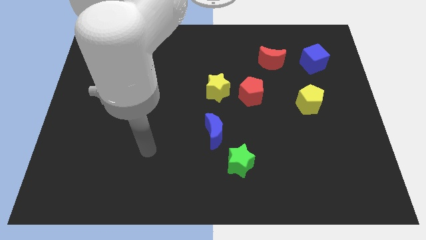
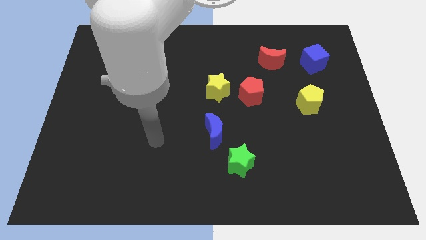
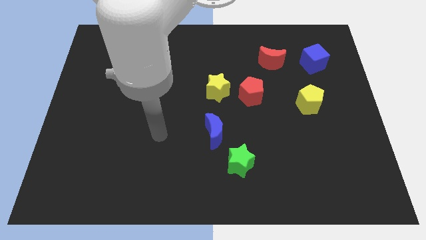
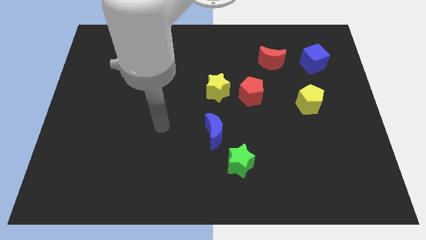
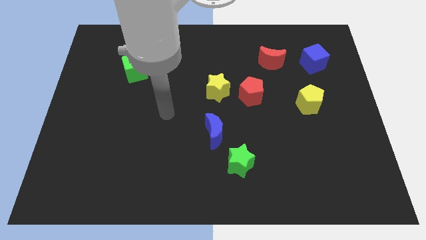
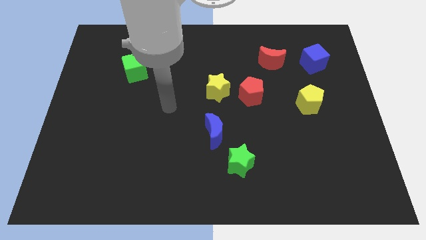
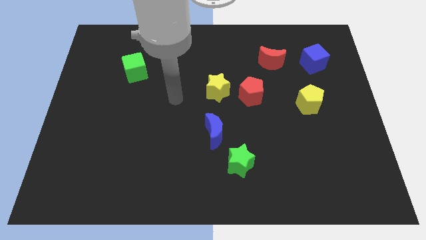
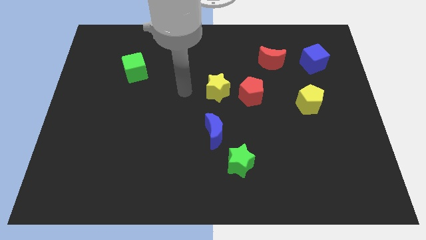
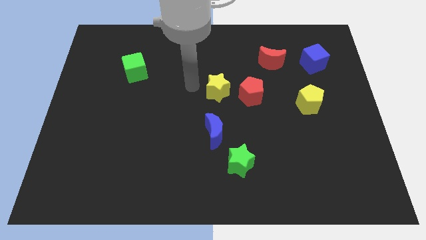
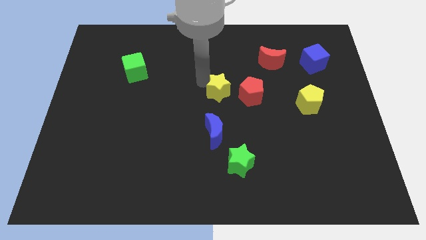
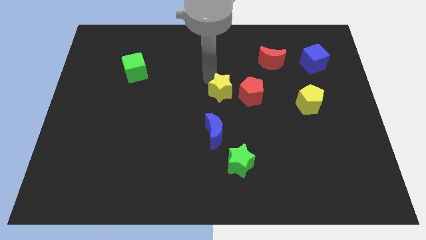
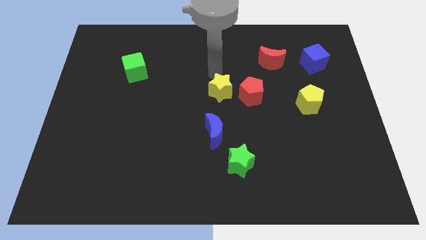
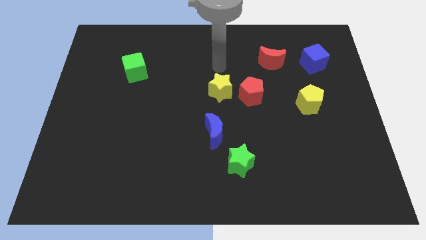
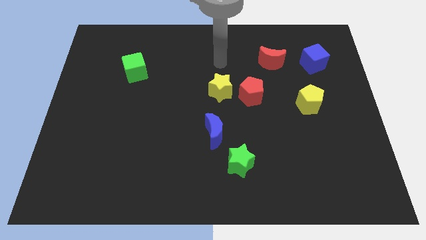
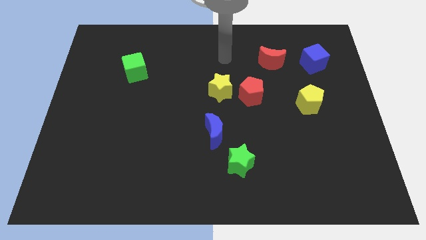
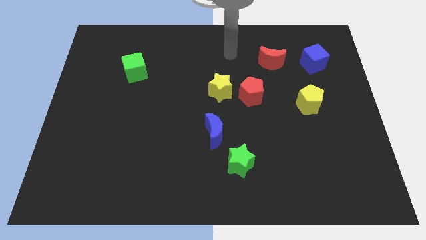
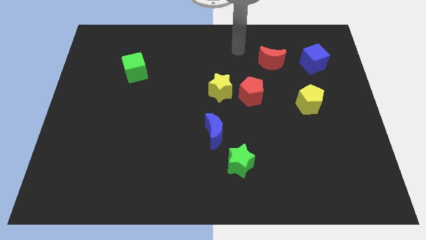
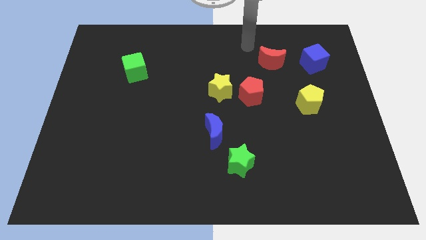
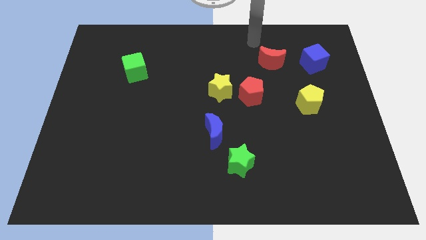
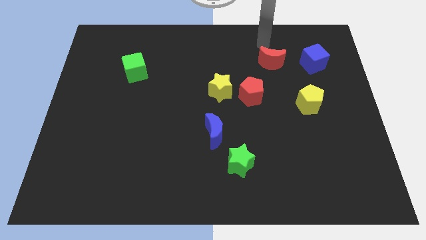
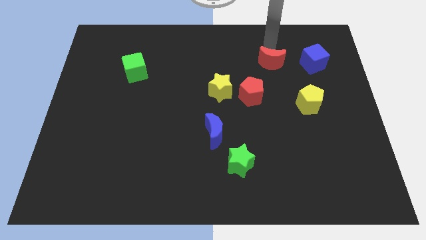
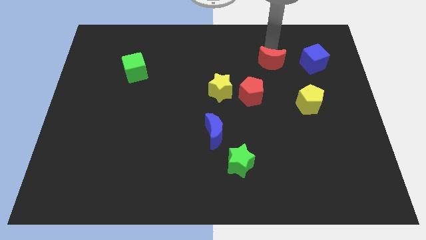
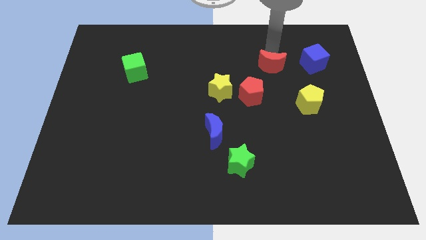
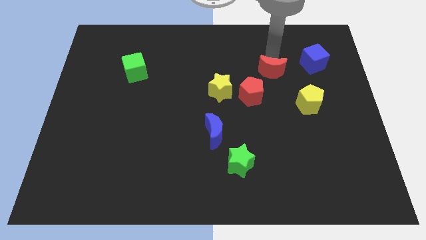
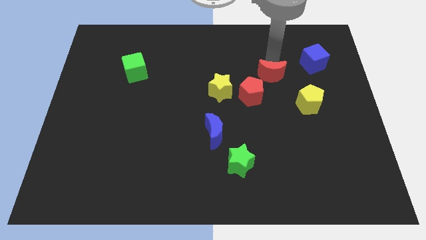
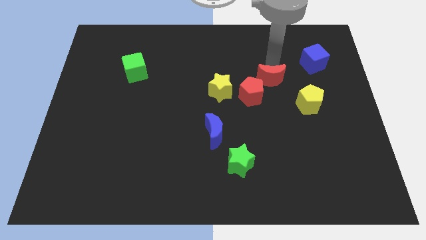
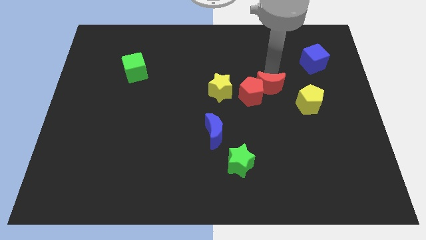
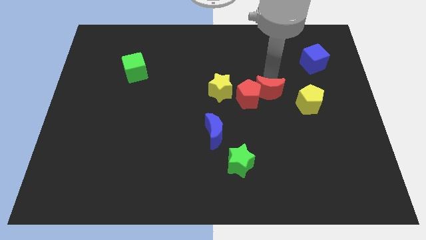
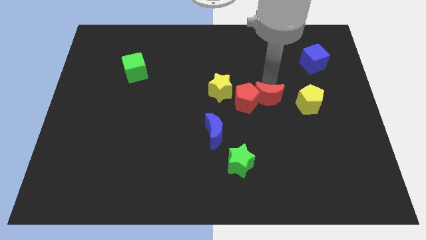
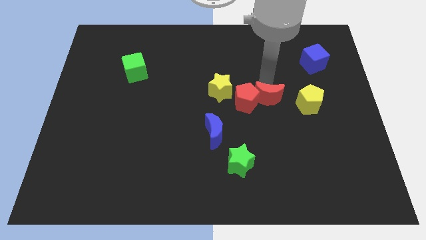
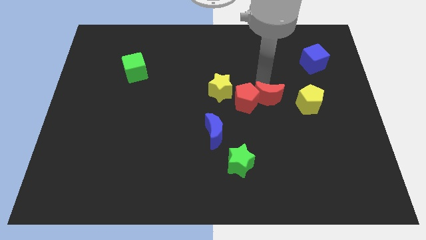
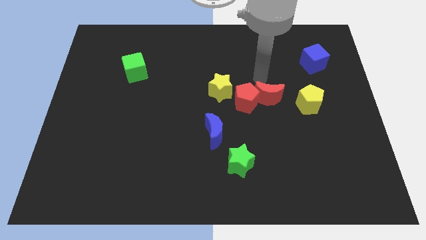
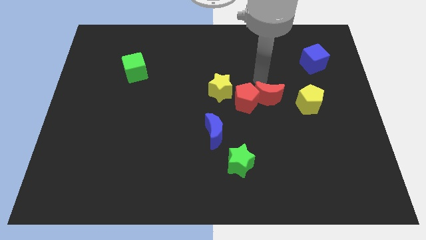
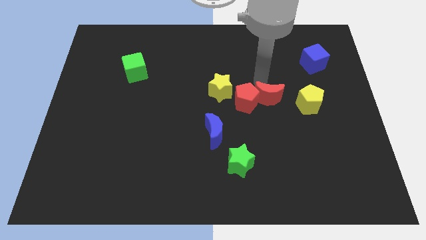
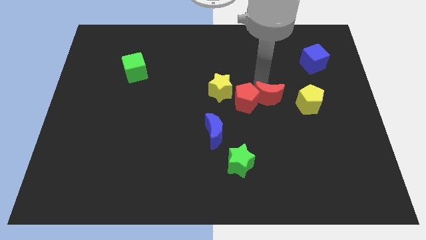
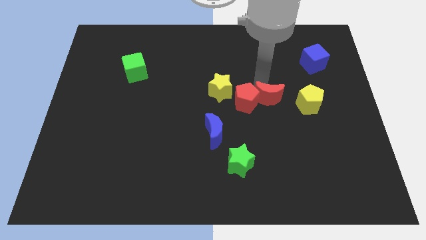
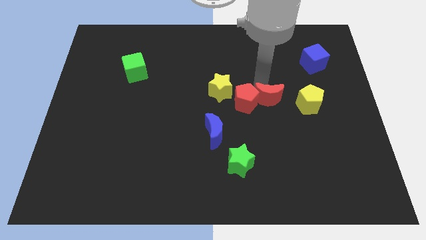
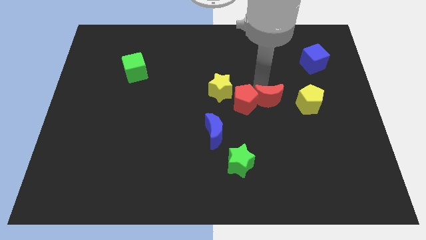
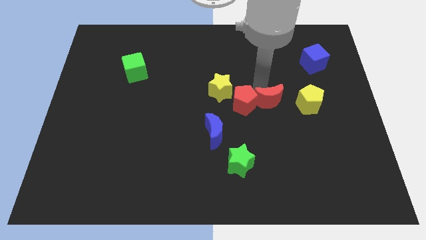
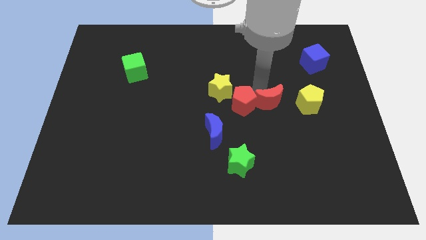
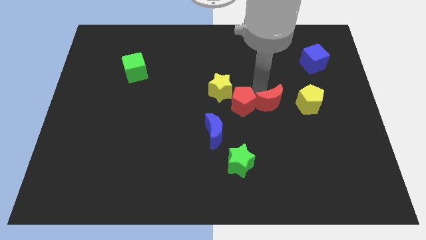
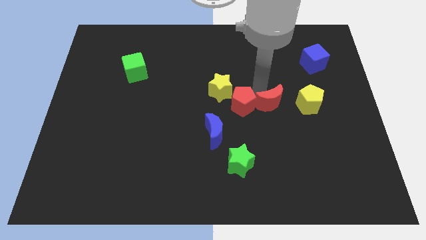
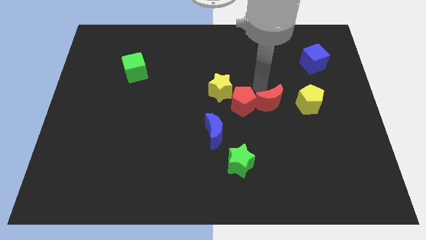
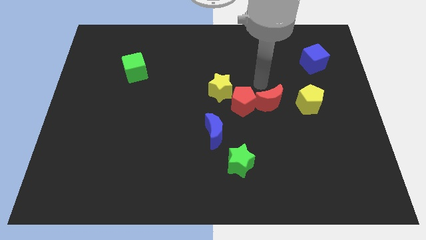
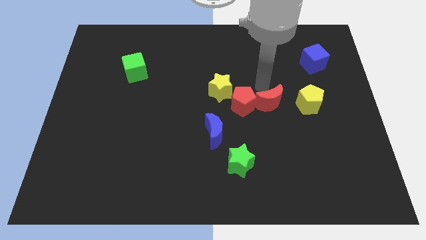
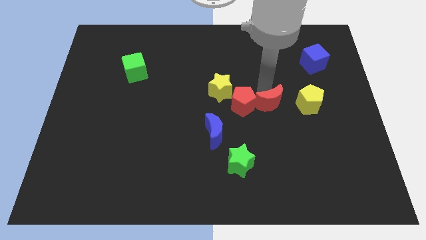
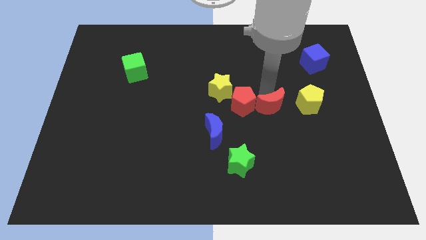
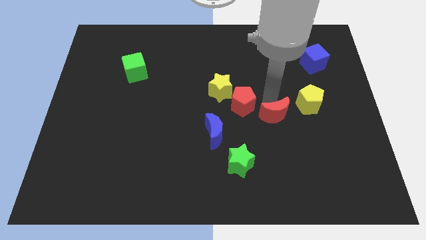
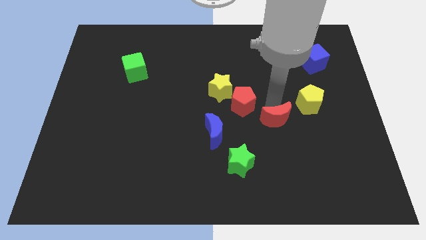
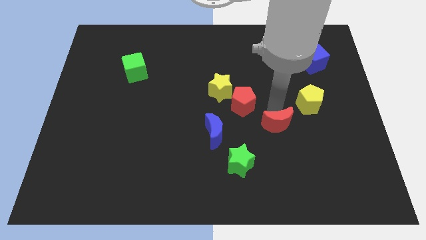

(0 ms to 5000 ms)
slide the red moon down

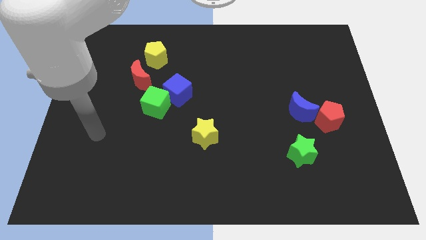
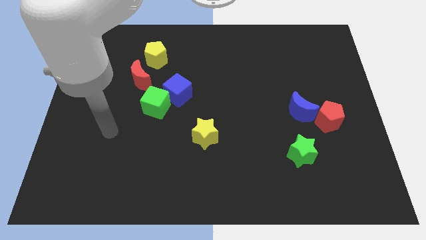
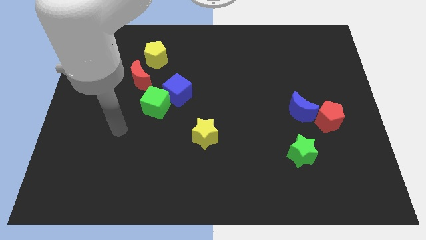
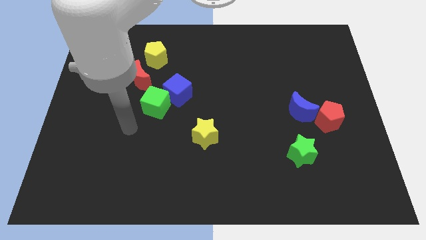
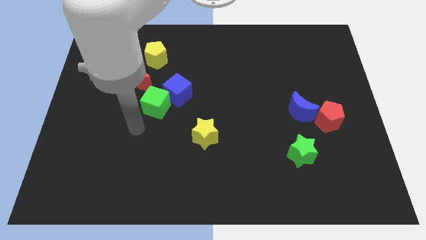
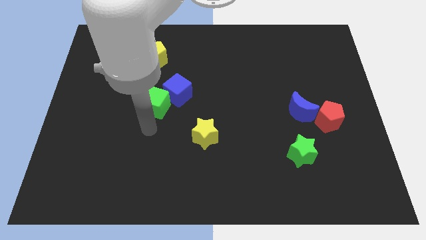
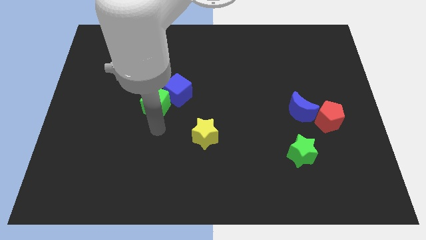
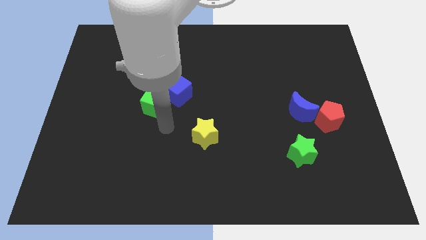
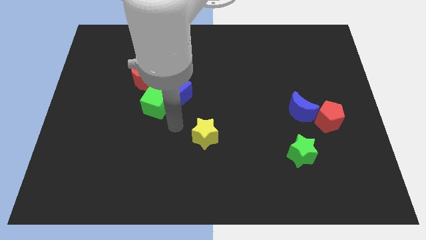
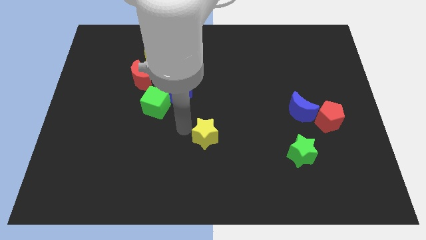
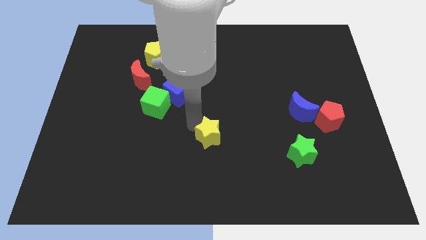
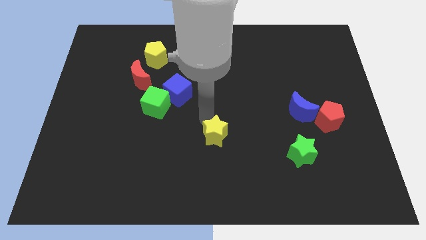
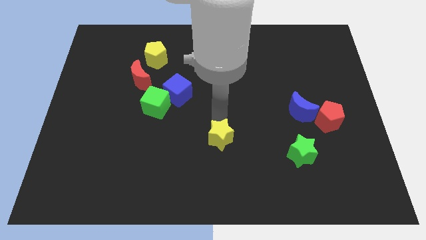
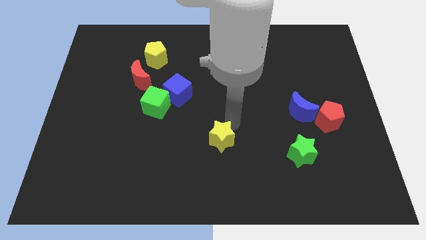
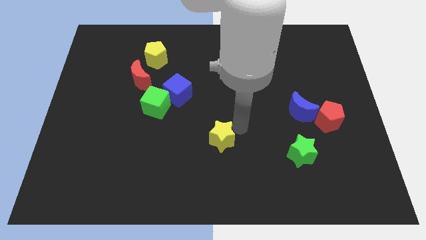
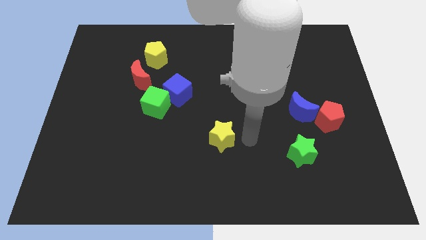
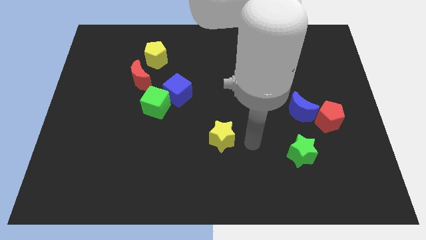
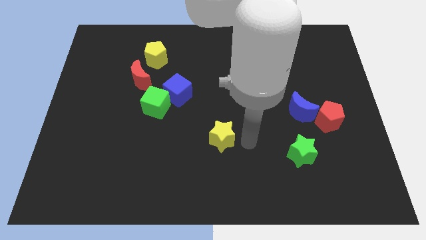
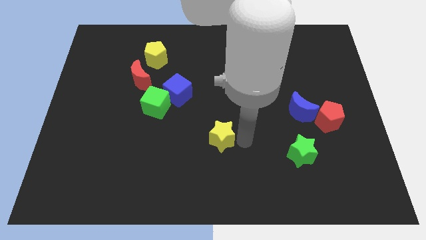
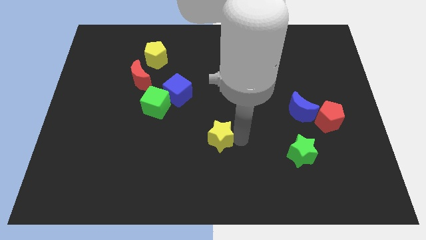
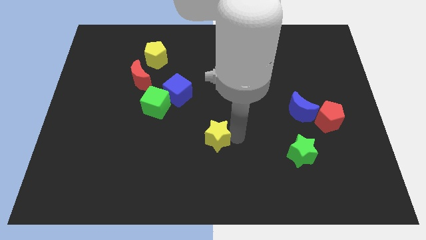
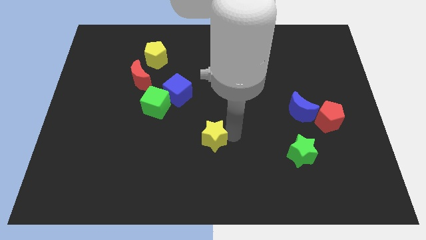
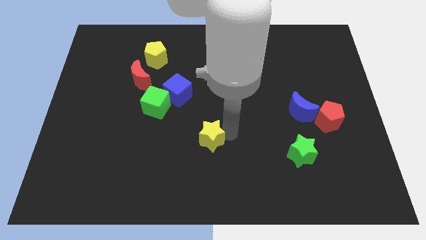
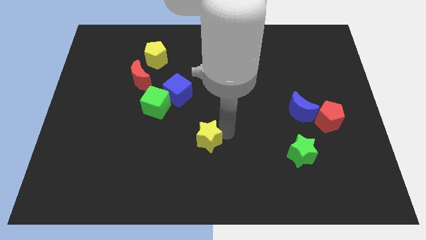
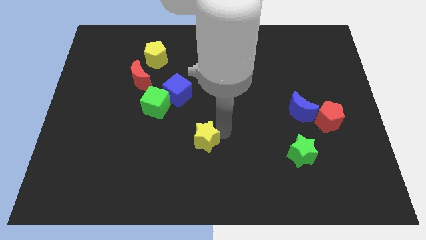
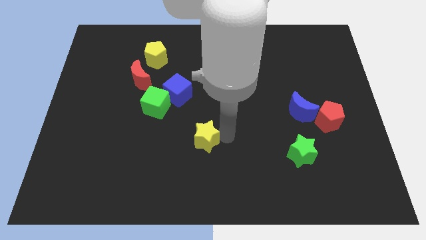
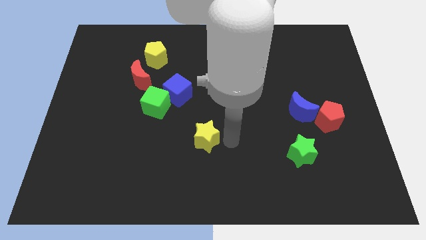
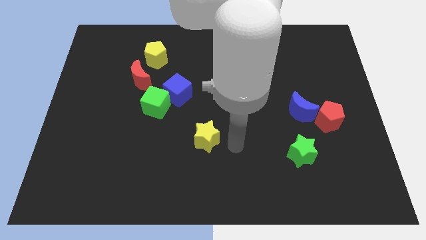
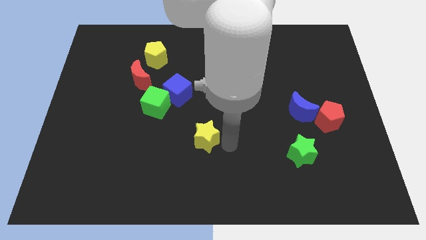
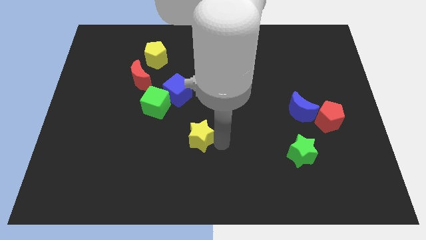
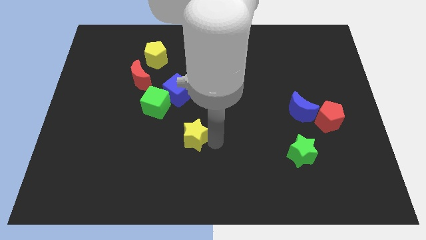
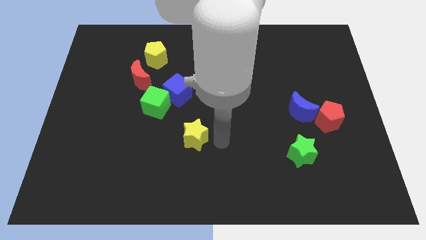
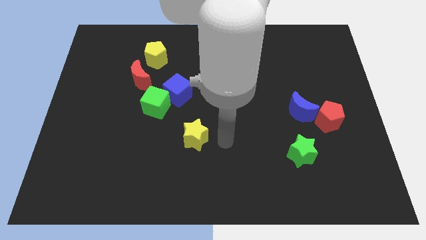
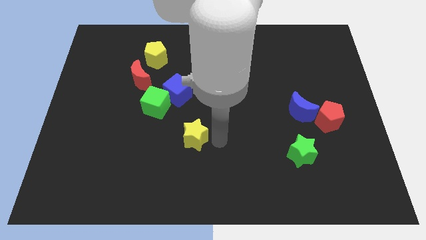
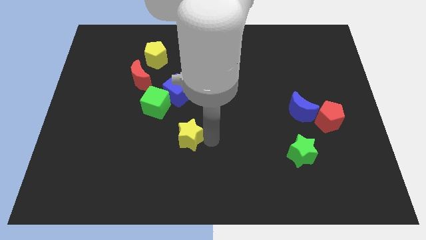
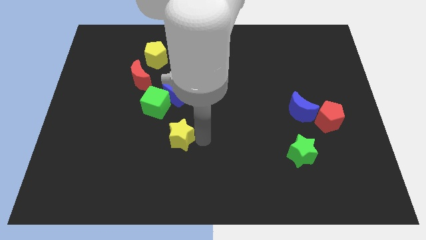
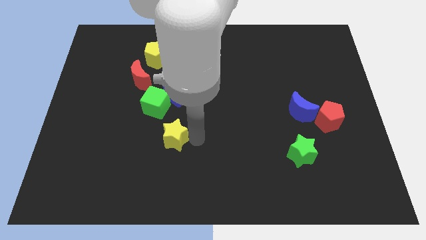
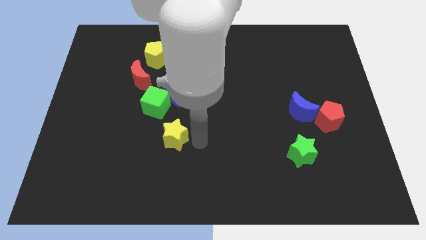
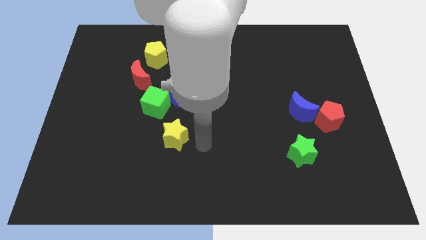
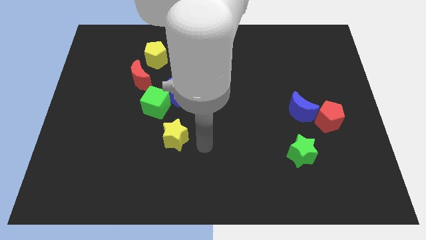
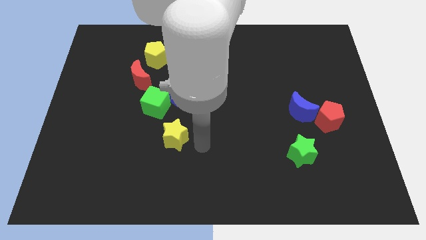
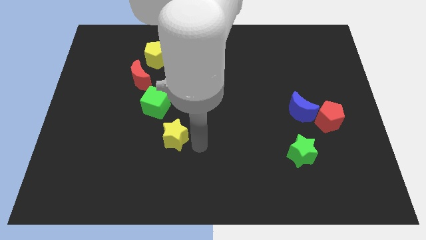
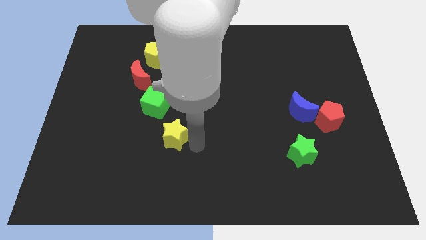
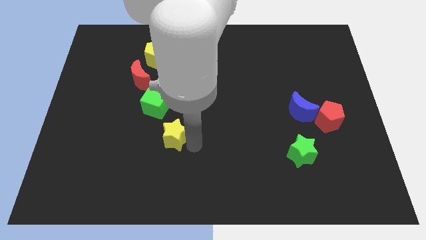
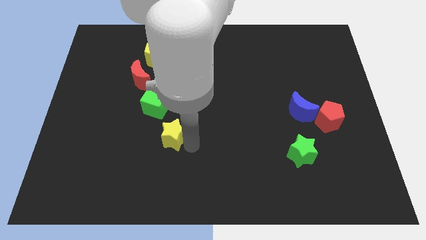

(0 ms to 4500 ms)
slightly move the yellow star to the left
